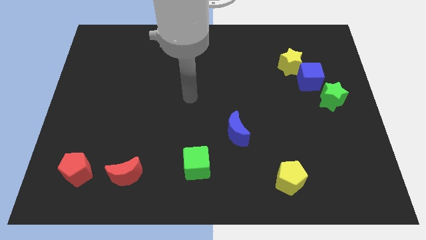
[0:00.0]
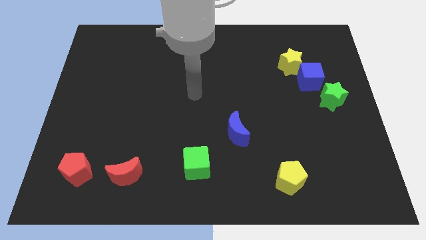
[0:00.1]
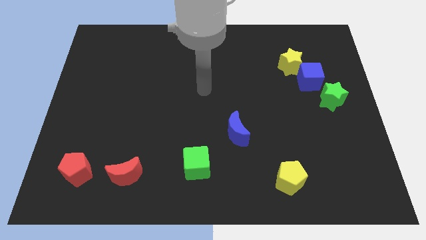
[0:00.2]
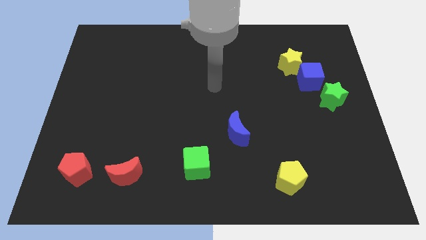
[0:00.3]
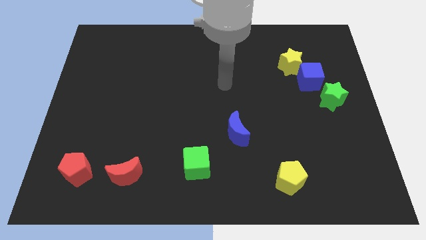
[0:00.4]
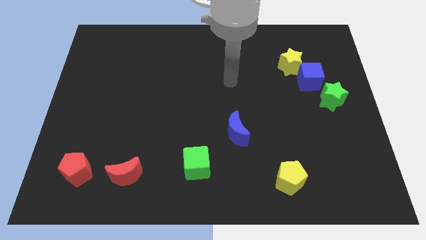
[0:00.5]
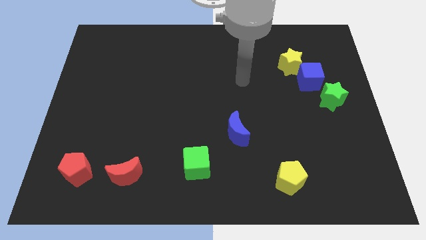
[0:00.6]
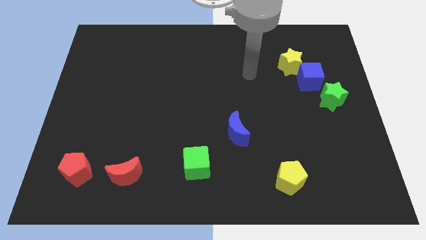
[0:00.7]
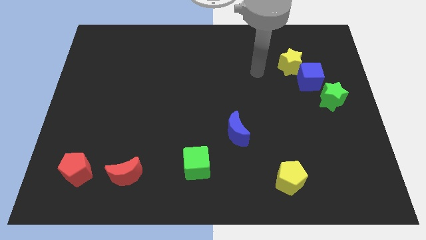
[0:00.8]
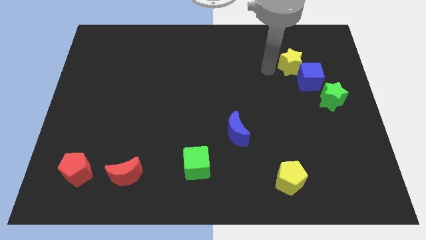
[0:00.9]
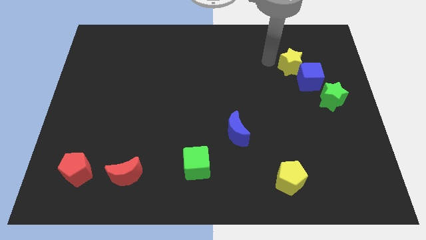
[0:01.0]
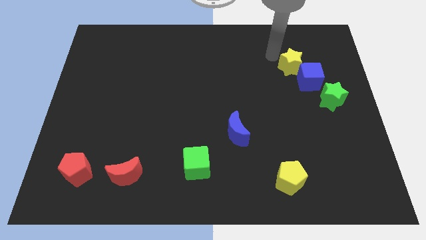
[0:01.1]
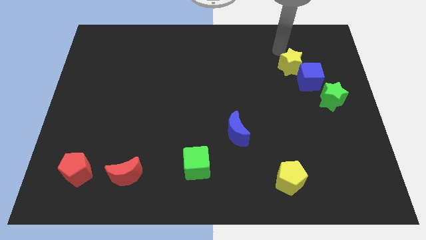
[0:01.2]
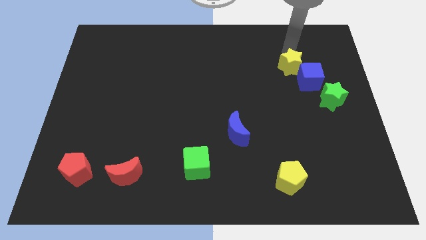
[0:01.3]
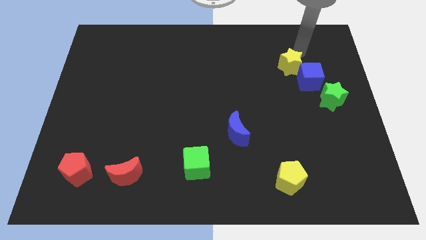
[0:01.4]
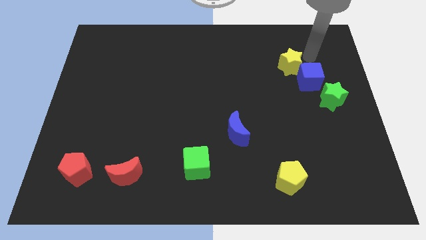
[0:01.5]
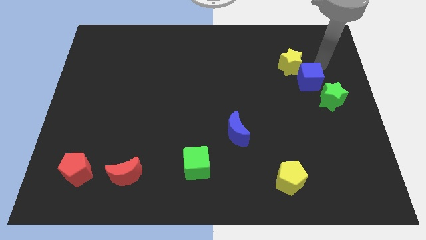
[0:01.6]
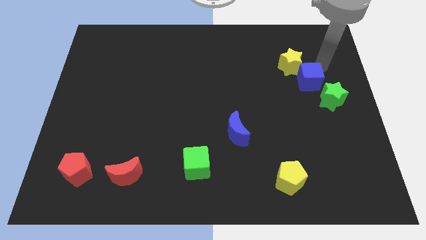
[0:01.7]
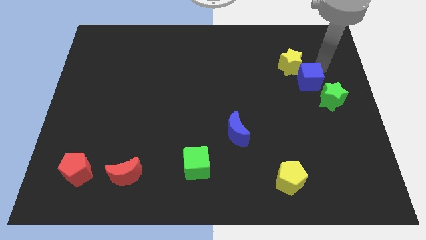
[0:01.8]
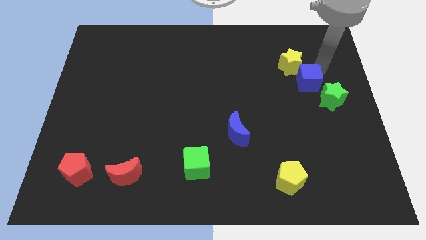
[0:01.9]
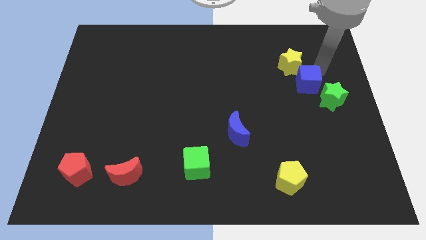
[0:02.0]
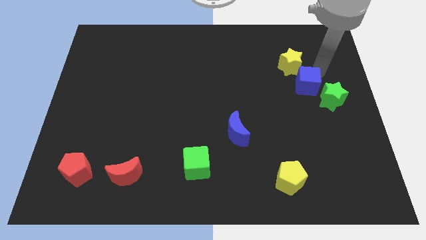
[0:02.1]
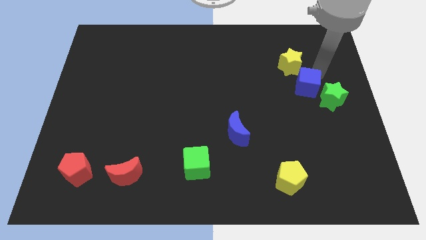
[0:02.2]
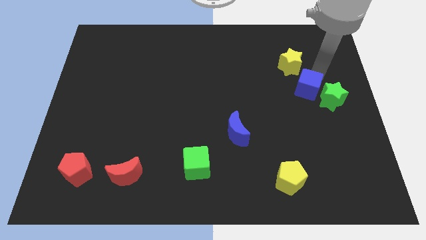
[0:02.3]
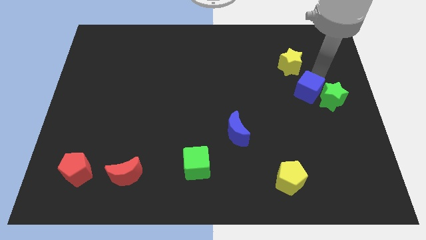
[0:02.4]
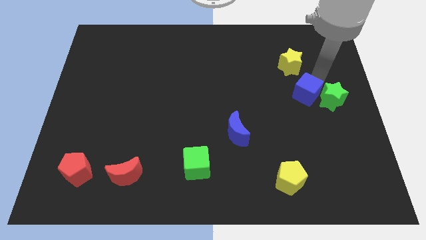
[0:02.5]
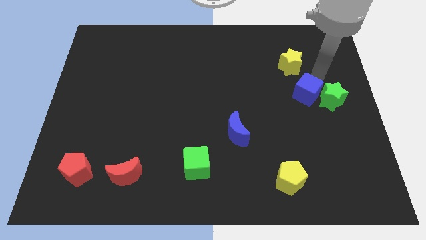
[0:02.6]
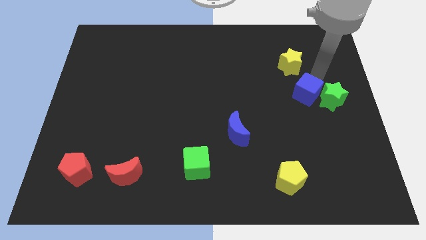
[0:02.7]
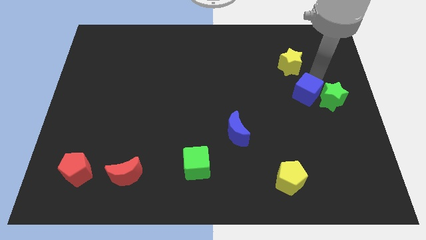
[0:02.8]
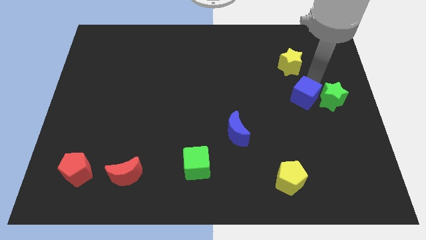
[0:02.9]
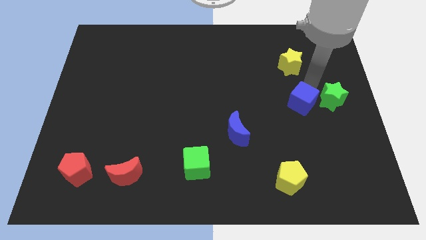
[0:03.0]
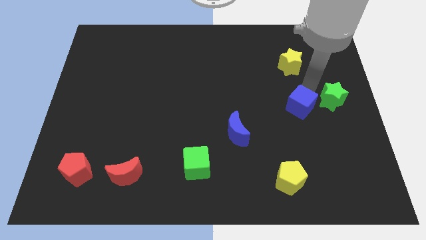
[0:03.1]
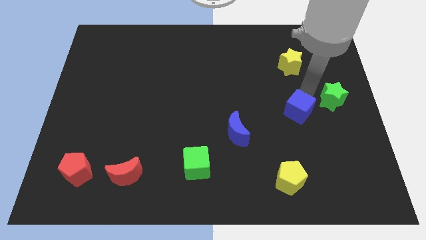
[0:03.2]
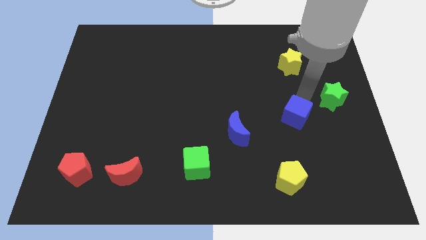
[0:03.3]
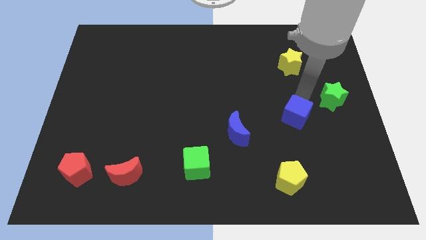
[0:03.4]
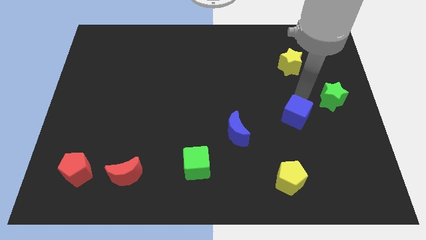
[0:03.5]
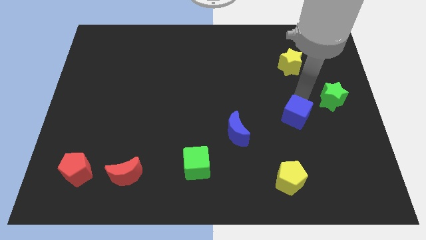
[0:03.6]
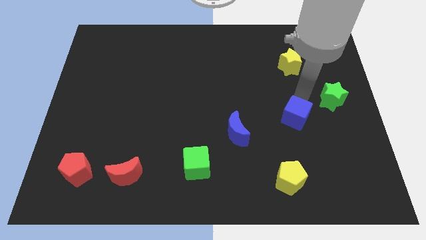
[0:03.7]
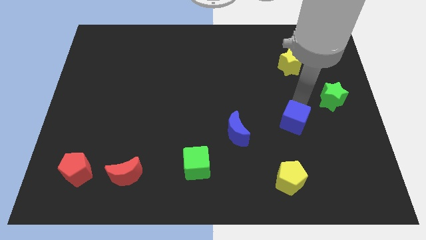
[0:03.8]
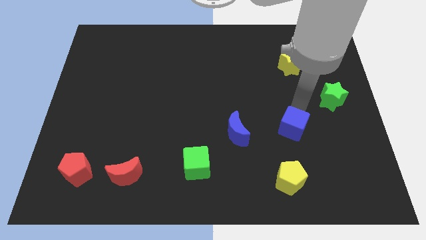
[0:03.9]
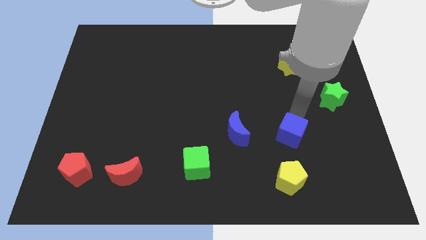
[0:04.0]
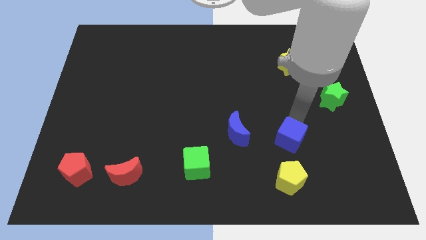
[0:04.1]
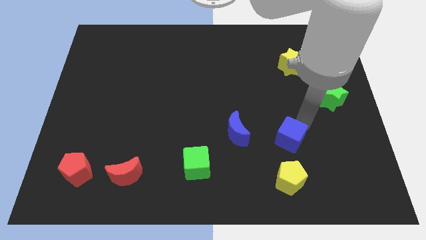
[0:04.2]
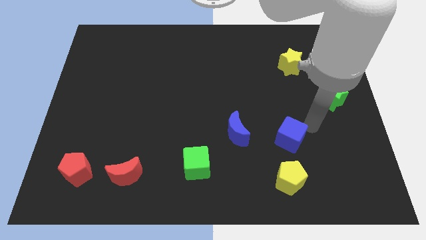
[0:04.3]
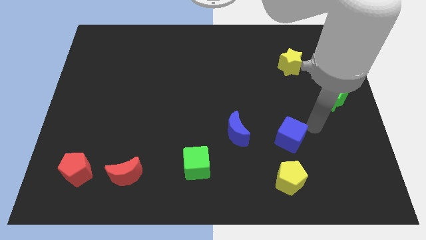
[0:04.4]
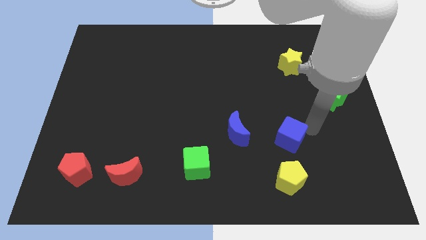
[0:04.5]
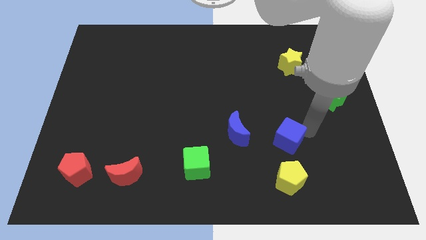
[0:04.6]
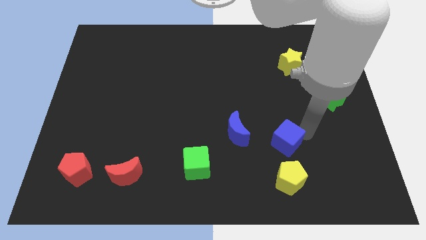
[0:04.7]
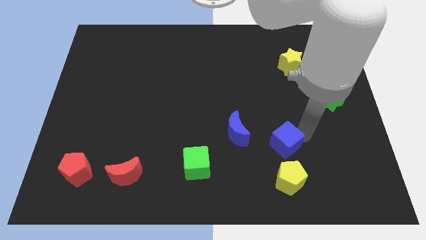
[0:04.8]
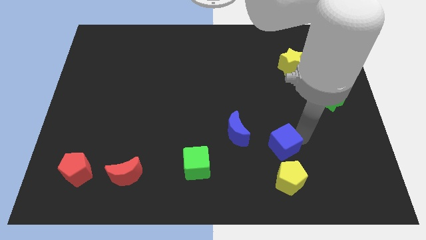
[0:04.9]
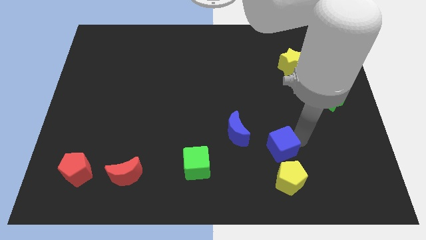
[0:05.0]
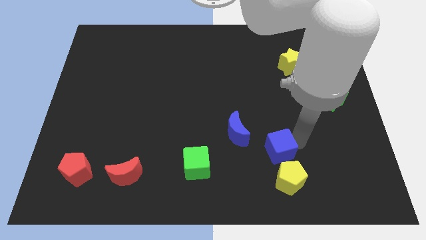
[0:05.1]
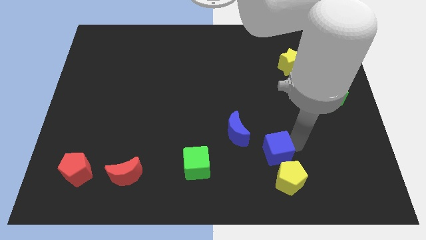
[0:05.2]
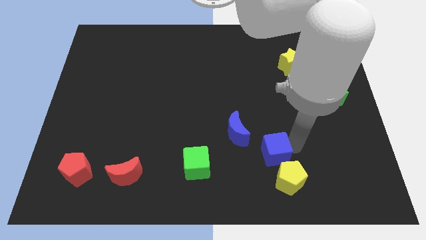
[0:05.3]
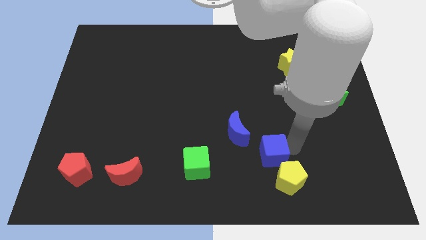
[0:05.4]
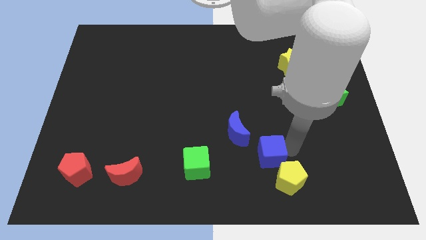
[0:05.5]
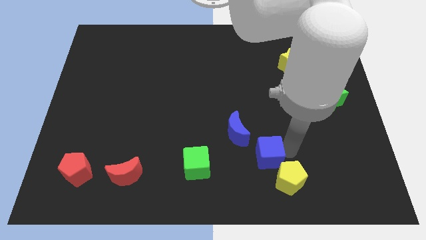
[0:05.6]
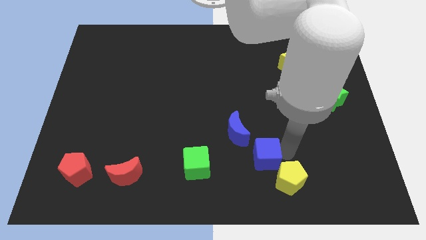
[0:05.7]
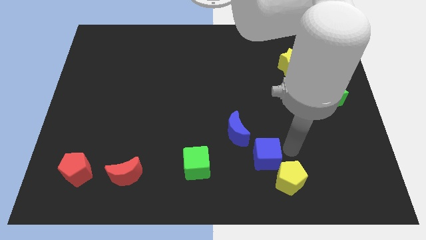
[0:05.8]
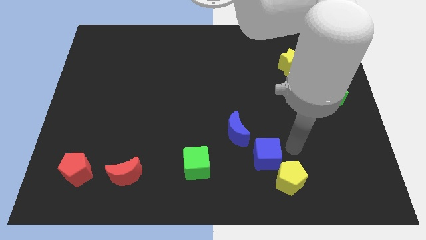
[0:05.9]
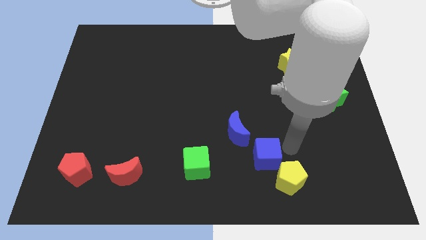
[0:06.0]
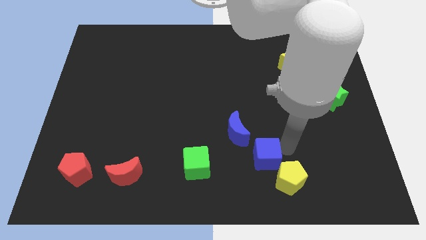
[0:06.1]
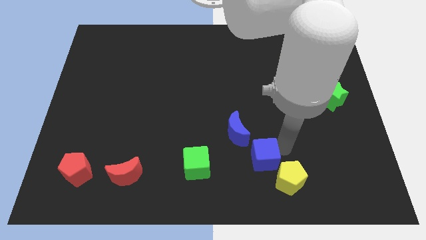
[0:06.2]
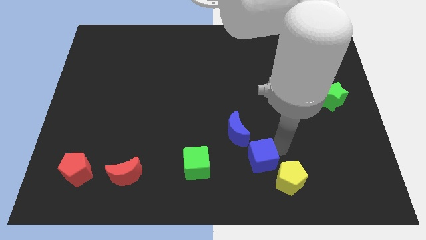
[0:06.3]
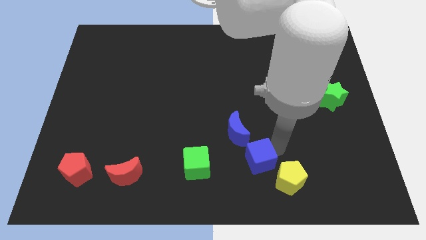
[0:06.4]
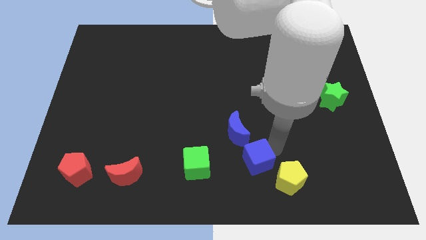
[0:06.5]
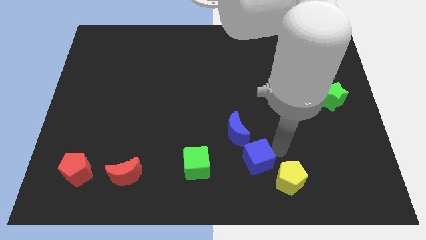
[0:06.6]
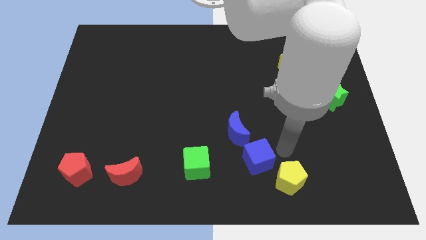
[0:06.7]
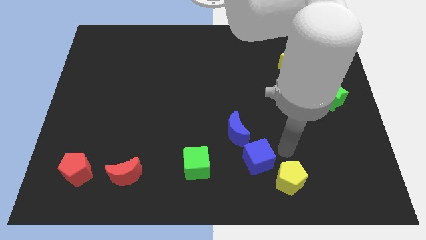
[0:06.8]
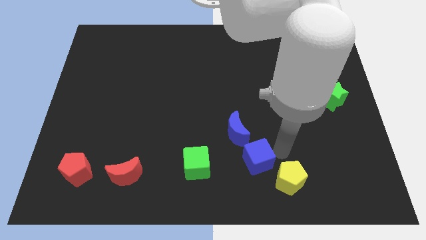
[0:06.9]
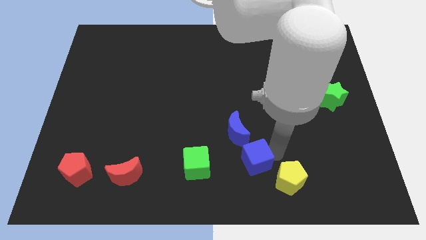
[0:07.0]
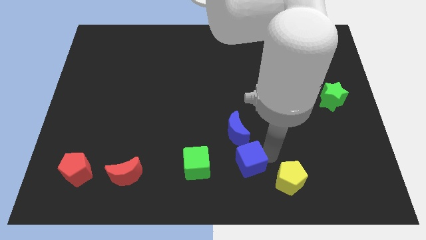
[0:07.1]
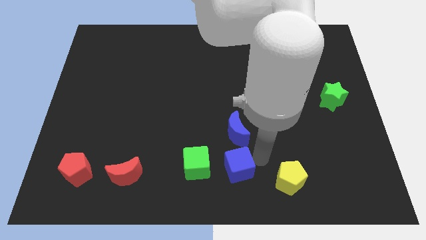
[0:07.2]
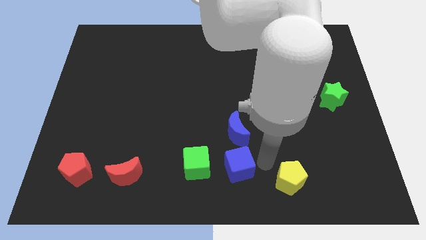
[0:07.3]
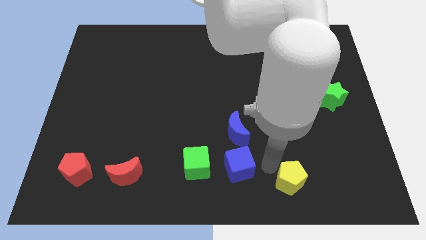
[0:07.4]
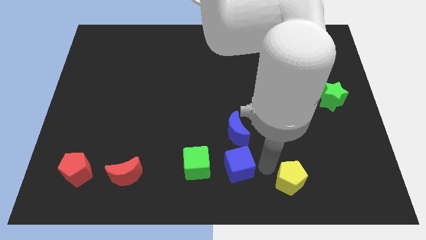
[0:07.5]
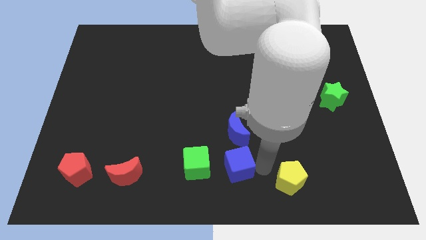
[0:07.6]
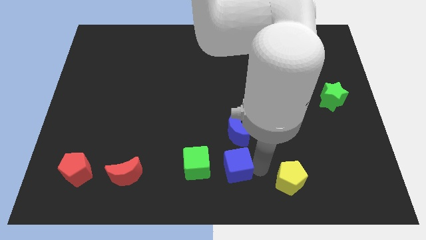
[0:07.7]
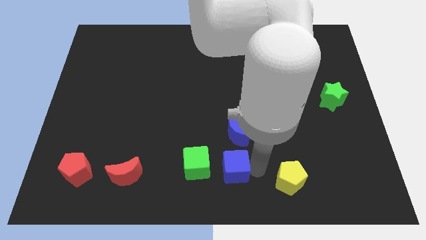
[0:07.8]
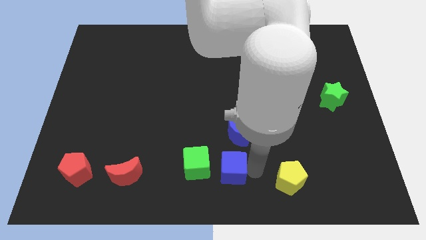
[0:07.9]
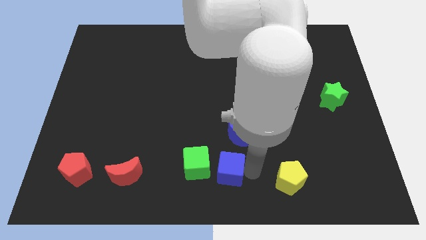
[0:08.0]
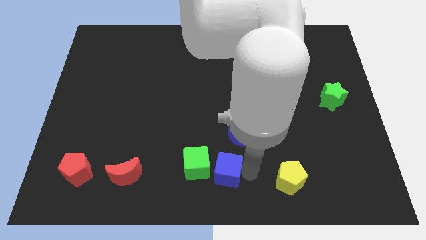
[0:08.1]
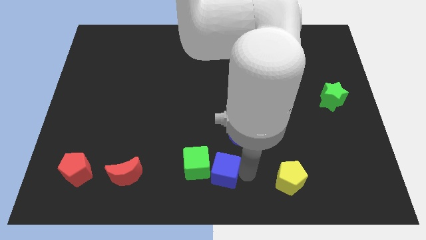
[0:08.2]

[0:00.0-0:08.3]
move the blue cube next to the green cube
